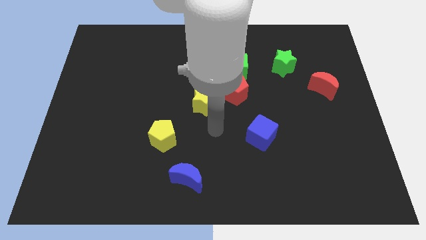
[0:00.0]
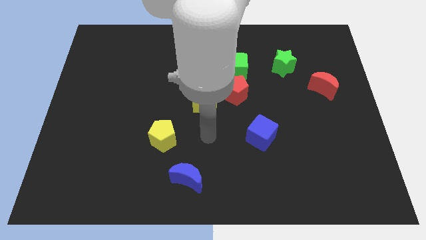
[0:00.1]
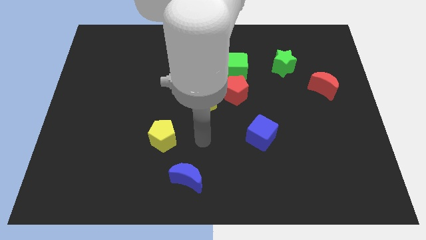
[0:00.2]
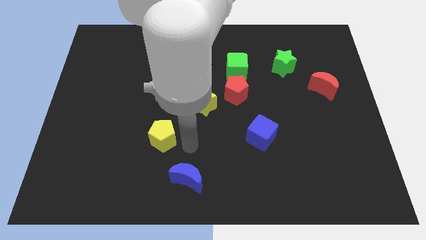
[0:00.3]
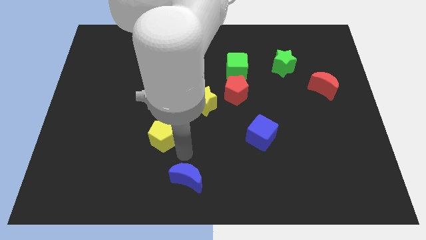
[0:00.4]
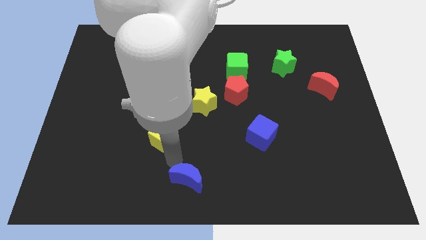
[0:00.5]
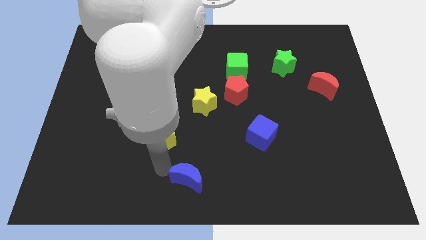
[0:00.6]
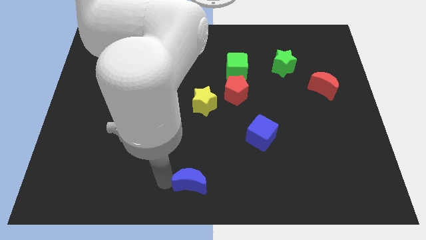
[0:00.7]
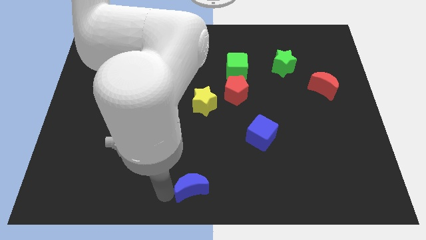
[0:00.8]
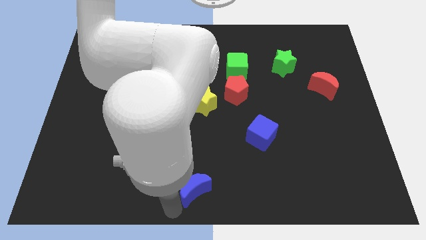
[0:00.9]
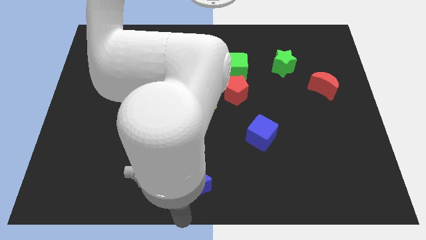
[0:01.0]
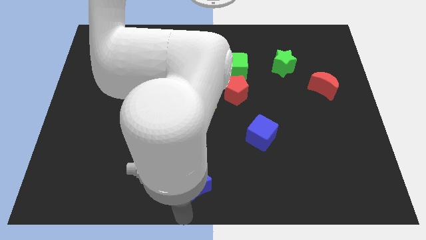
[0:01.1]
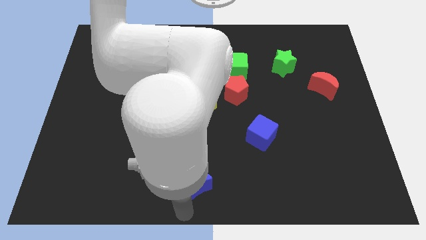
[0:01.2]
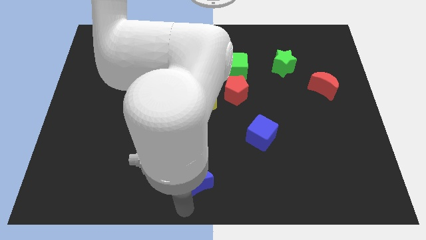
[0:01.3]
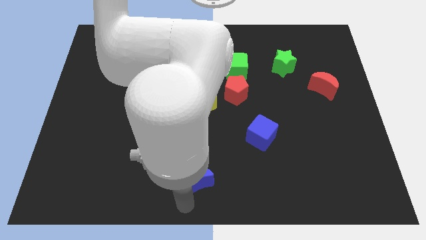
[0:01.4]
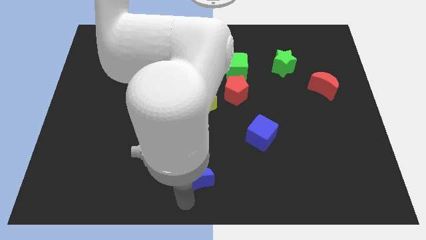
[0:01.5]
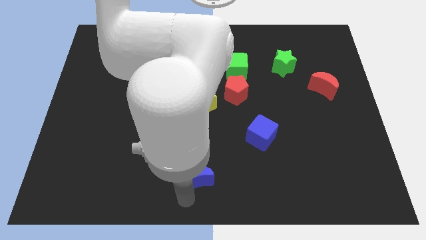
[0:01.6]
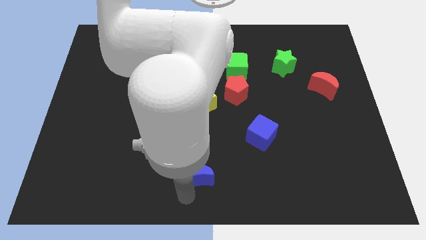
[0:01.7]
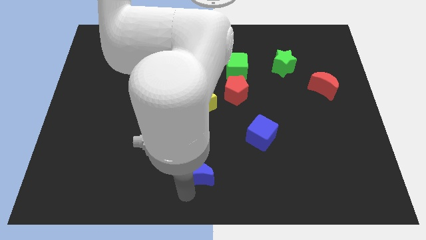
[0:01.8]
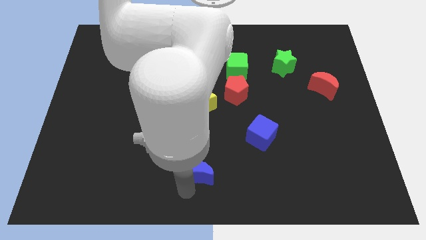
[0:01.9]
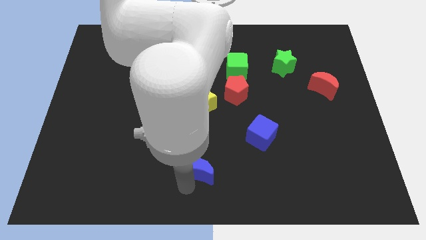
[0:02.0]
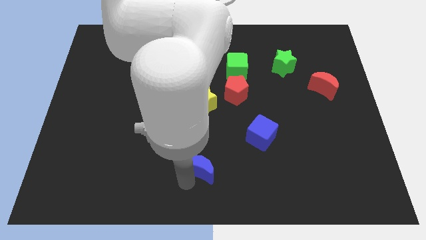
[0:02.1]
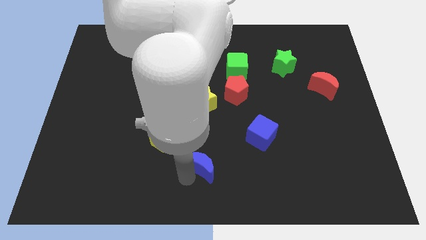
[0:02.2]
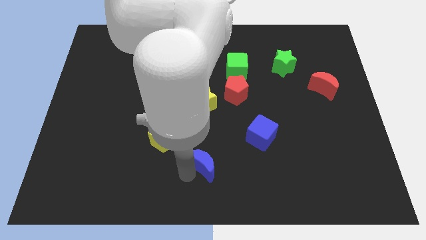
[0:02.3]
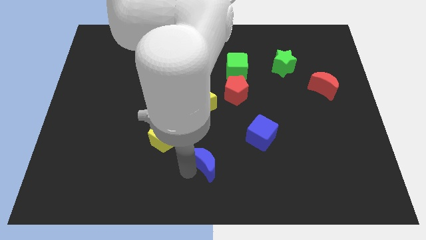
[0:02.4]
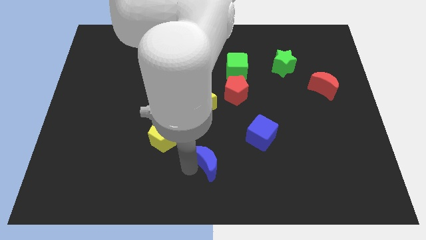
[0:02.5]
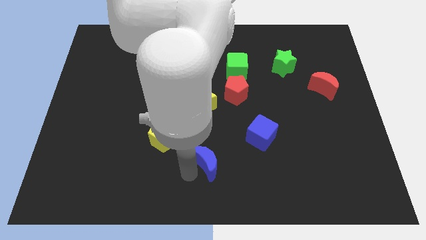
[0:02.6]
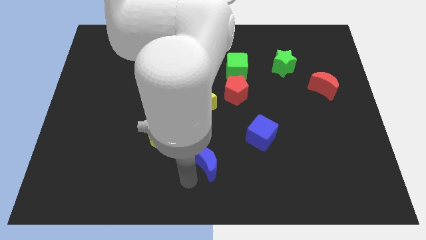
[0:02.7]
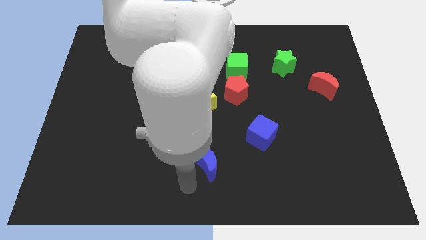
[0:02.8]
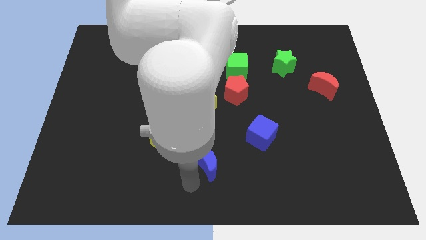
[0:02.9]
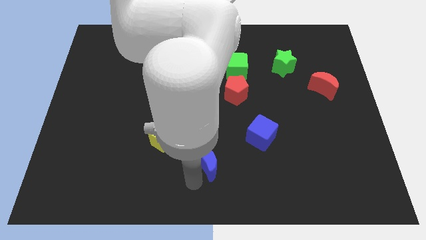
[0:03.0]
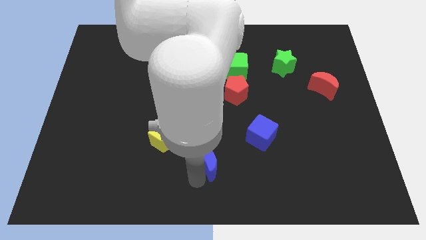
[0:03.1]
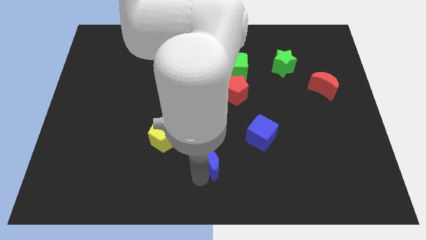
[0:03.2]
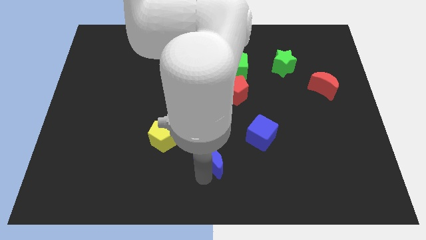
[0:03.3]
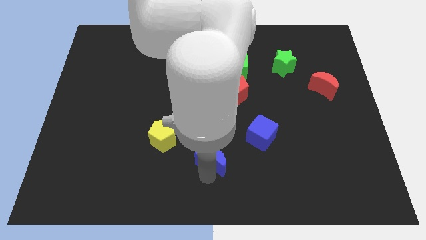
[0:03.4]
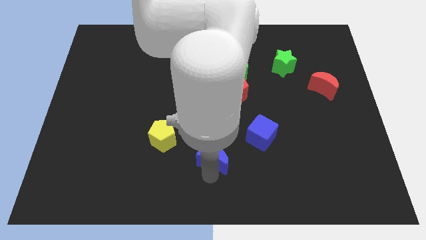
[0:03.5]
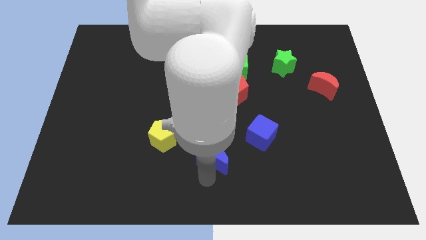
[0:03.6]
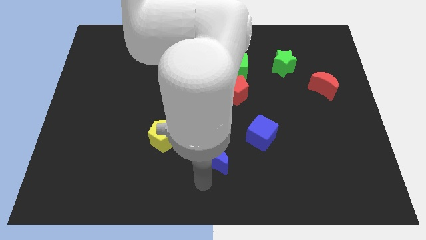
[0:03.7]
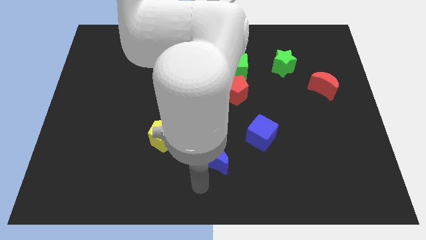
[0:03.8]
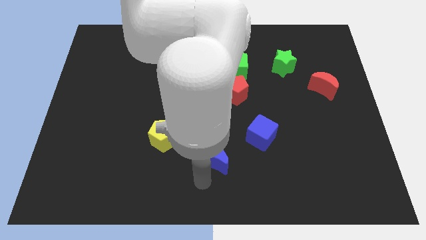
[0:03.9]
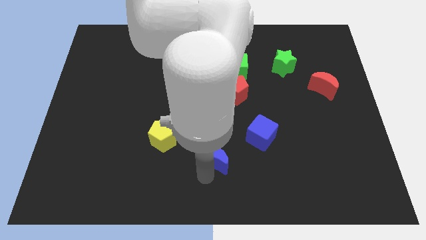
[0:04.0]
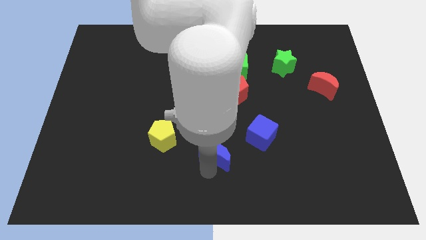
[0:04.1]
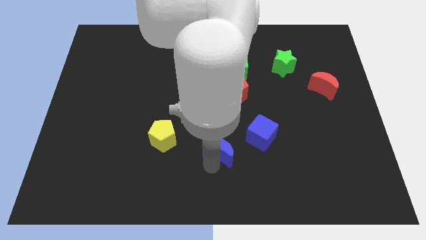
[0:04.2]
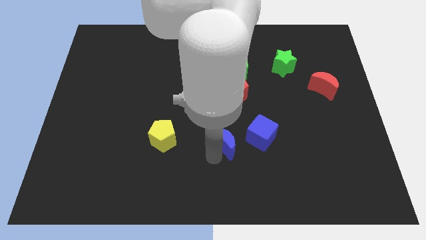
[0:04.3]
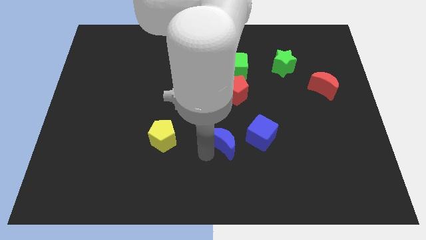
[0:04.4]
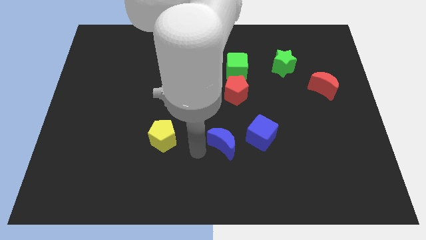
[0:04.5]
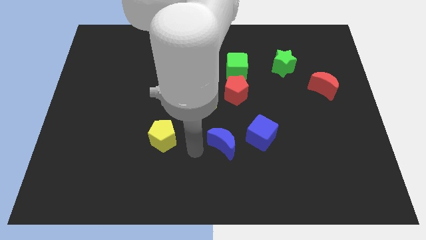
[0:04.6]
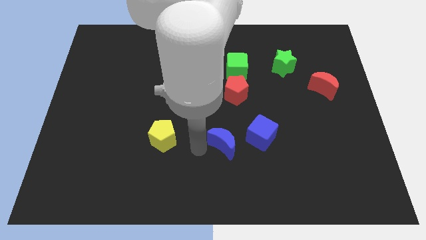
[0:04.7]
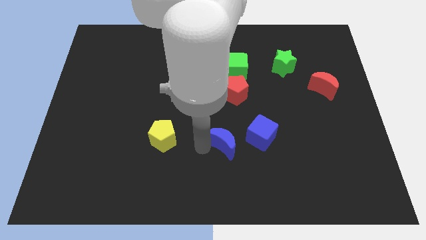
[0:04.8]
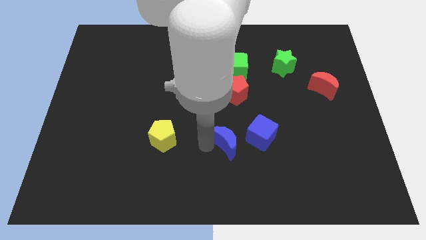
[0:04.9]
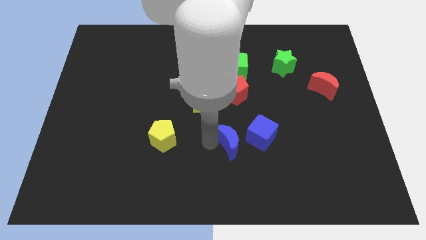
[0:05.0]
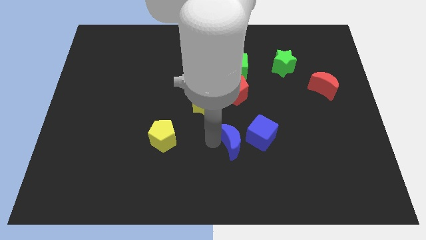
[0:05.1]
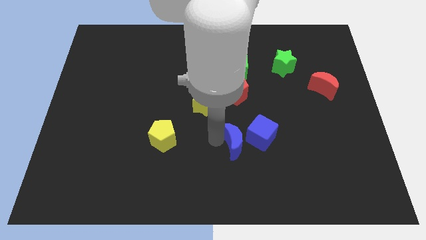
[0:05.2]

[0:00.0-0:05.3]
slide the blue moon next to the blue cube

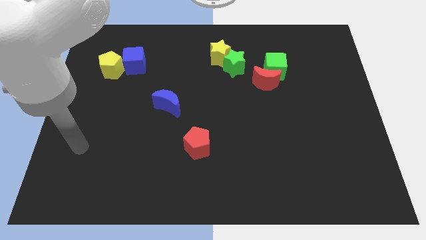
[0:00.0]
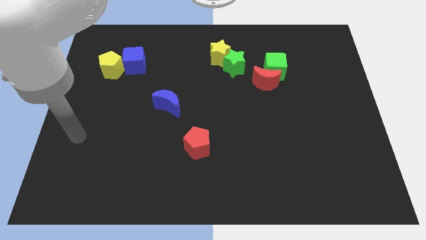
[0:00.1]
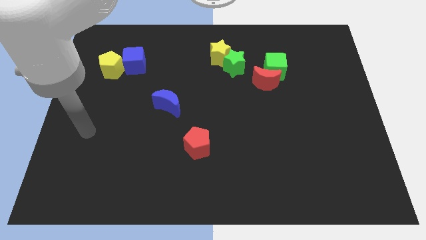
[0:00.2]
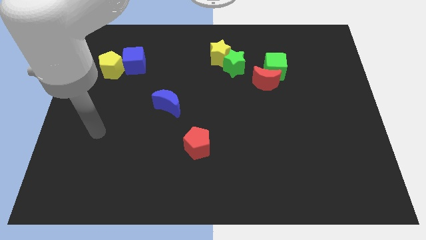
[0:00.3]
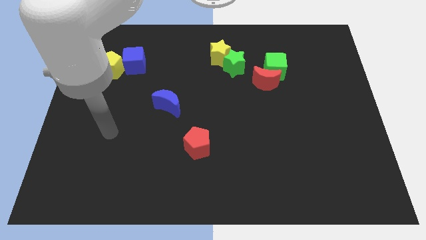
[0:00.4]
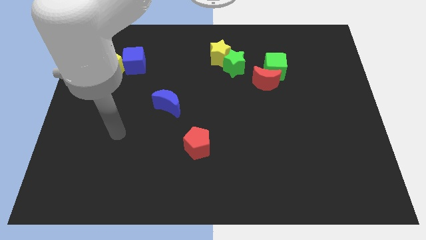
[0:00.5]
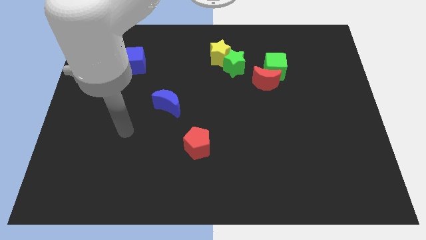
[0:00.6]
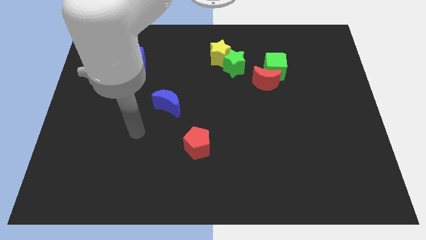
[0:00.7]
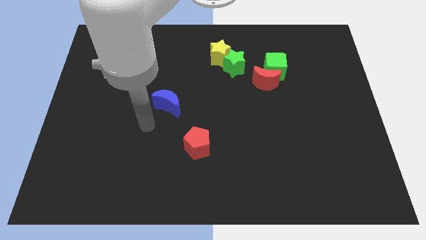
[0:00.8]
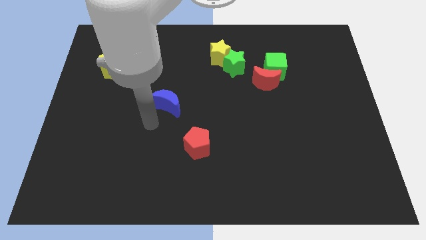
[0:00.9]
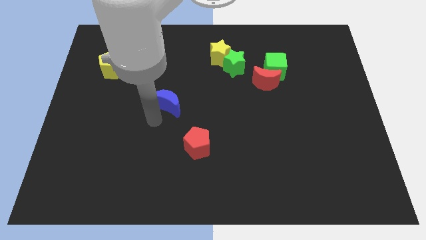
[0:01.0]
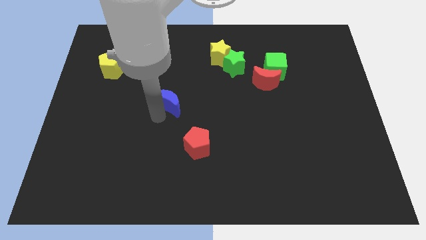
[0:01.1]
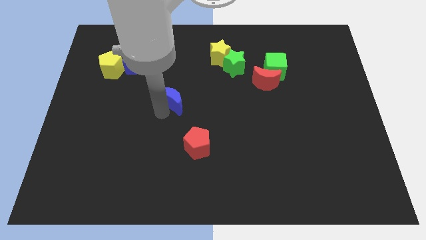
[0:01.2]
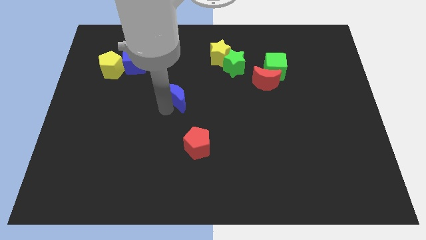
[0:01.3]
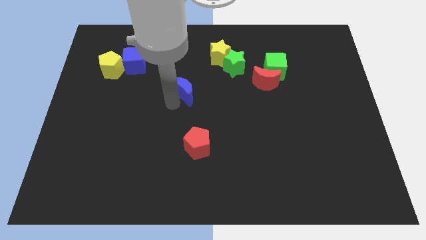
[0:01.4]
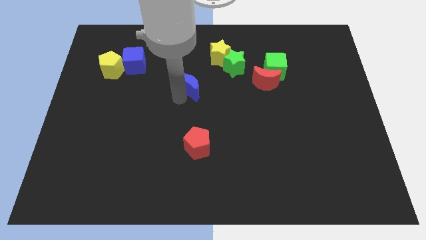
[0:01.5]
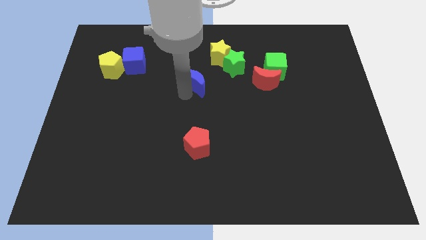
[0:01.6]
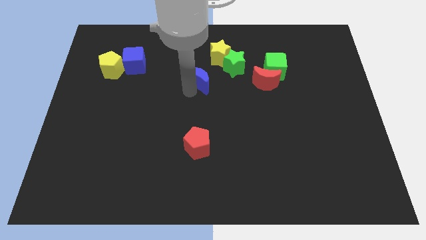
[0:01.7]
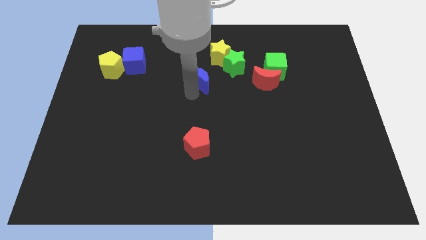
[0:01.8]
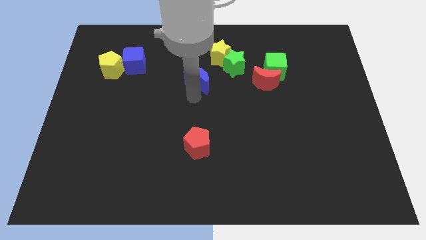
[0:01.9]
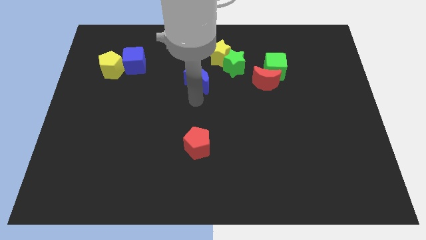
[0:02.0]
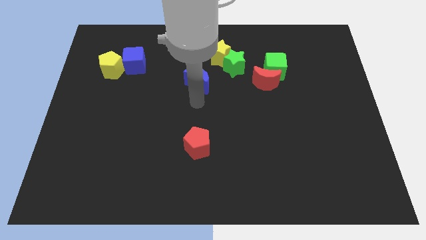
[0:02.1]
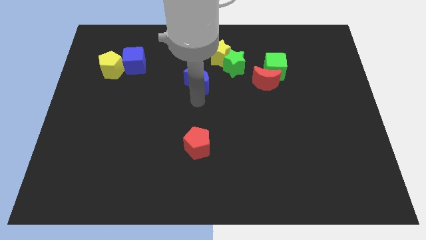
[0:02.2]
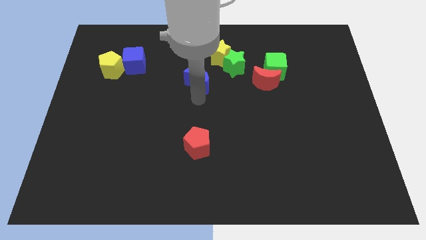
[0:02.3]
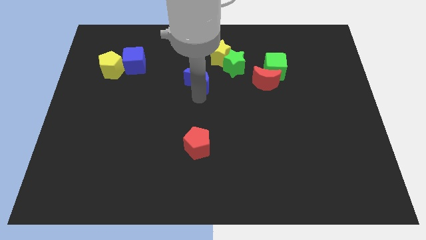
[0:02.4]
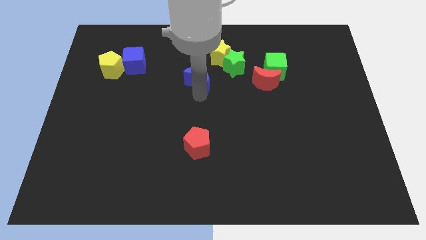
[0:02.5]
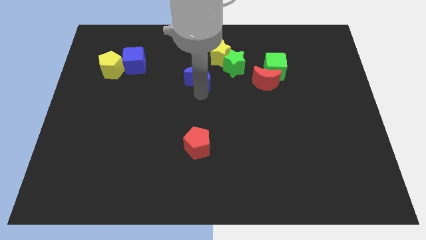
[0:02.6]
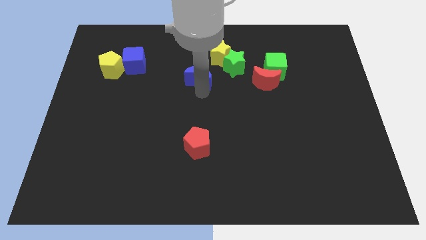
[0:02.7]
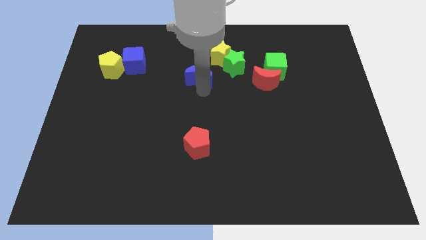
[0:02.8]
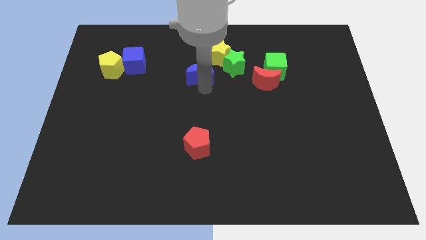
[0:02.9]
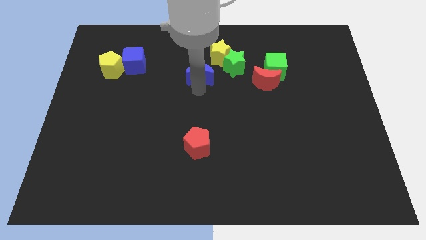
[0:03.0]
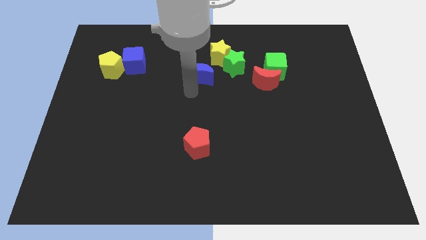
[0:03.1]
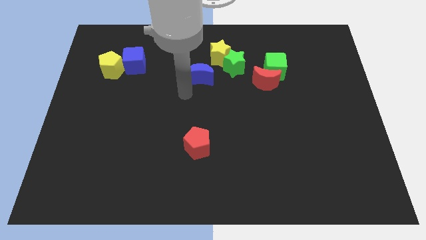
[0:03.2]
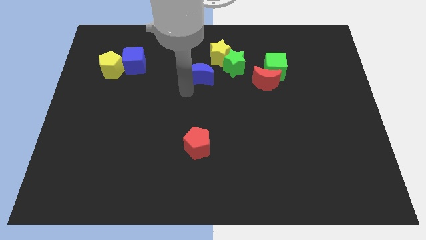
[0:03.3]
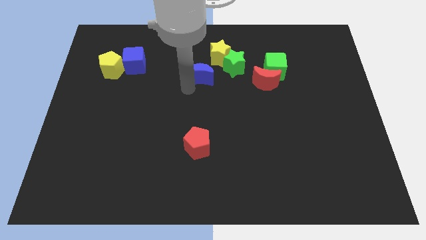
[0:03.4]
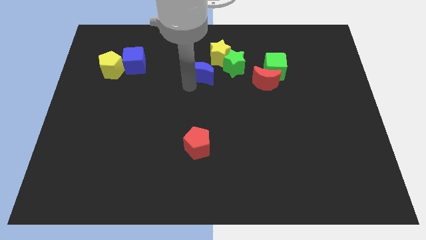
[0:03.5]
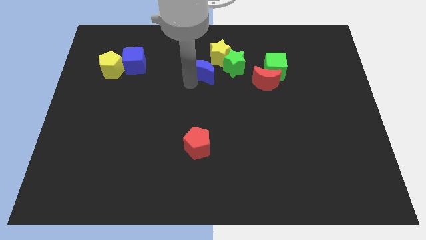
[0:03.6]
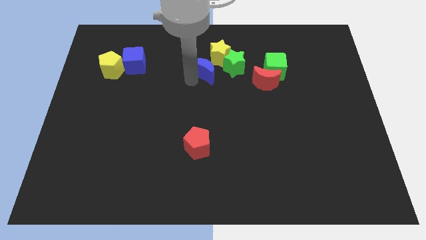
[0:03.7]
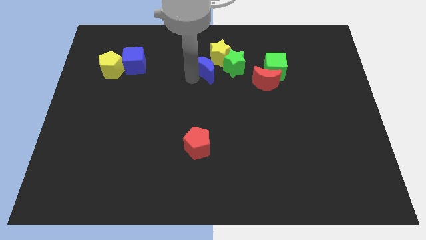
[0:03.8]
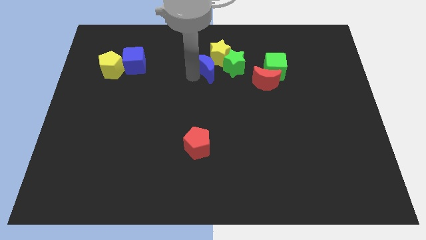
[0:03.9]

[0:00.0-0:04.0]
push the blue moon close to the yellow star
